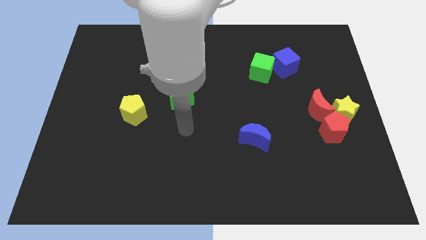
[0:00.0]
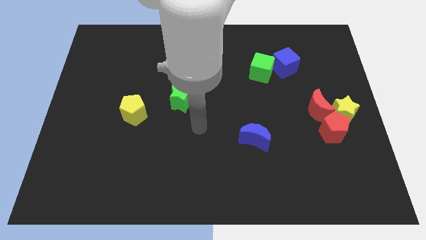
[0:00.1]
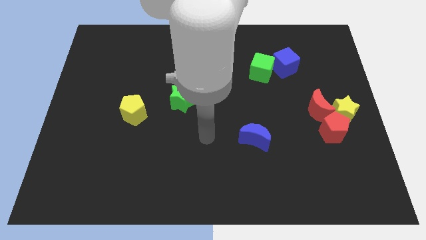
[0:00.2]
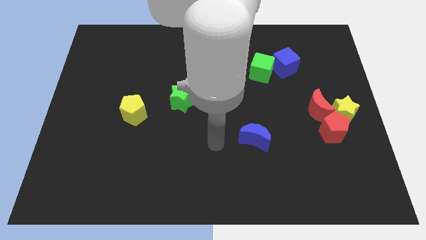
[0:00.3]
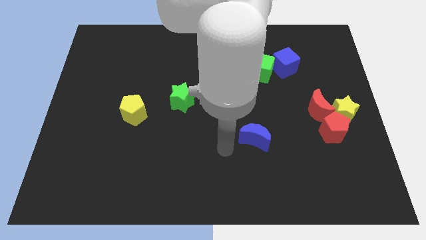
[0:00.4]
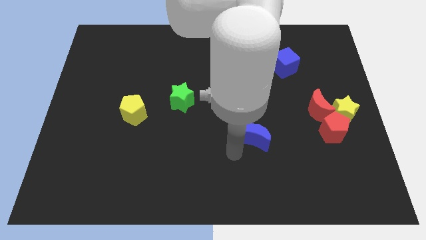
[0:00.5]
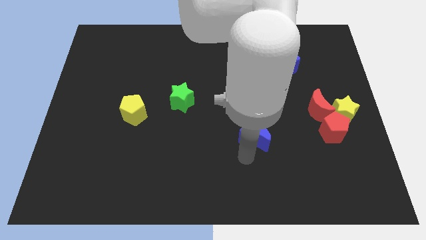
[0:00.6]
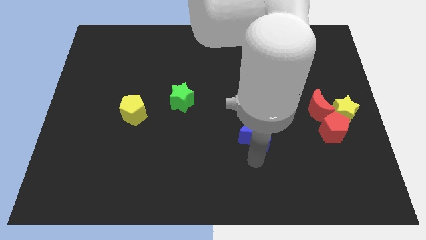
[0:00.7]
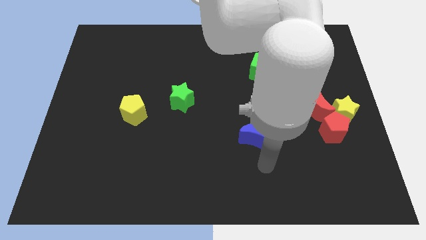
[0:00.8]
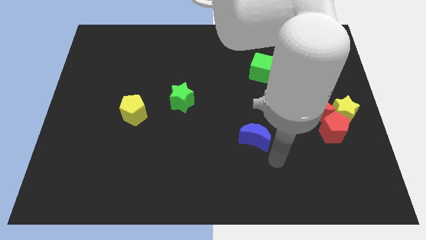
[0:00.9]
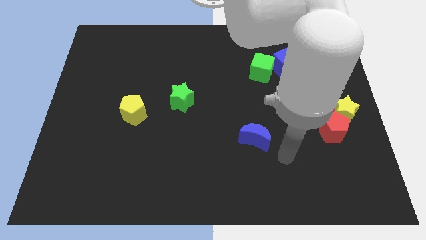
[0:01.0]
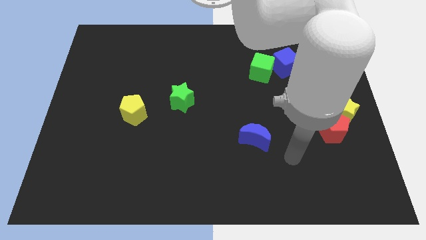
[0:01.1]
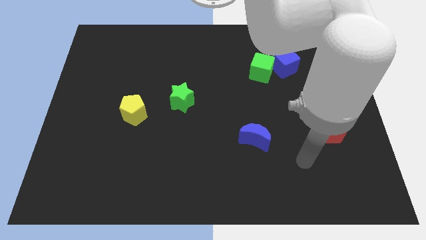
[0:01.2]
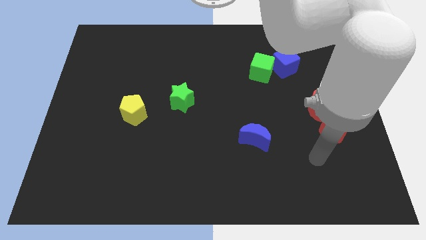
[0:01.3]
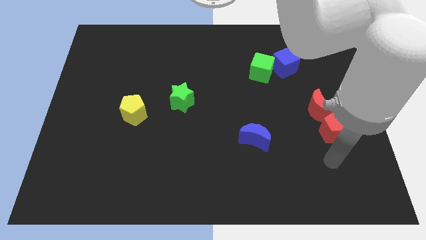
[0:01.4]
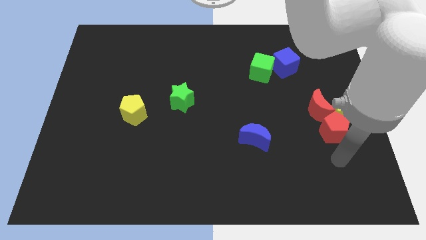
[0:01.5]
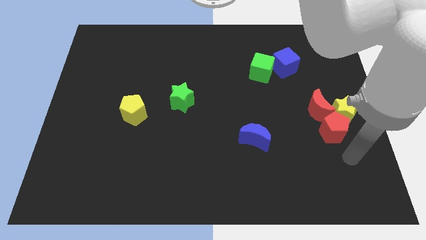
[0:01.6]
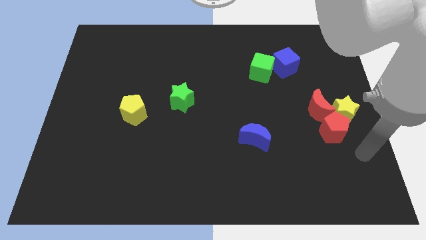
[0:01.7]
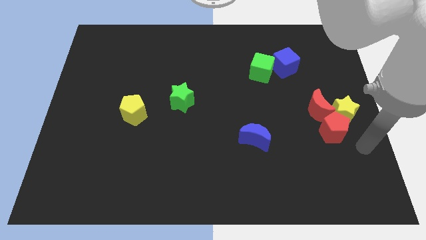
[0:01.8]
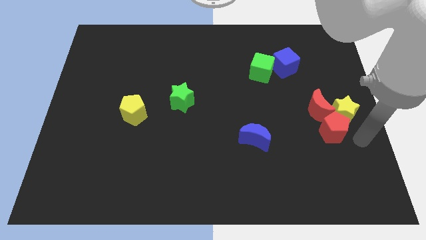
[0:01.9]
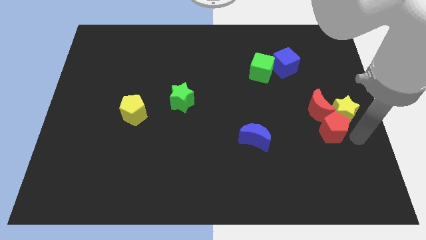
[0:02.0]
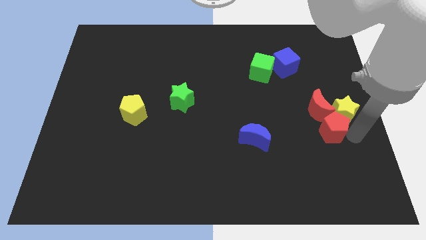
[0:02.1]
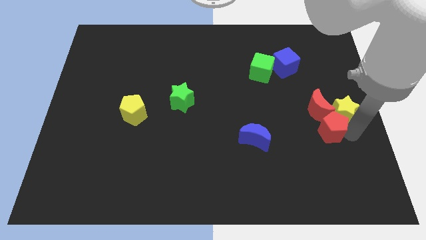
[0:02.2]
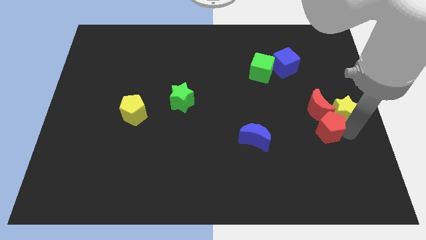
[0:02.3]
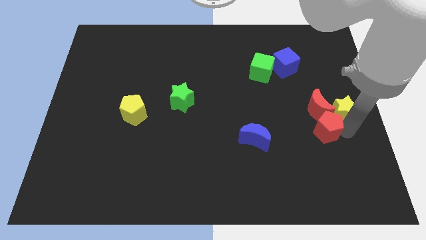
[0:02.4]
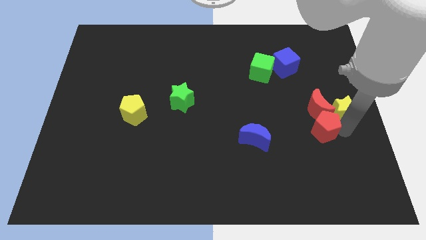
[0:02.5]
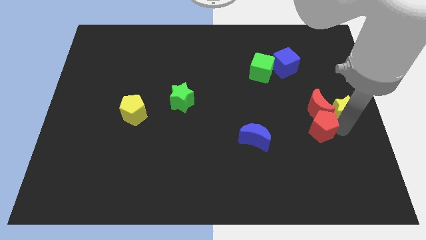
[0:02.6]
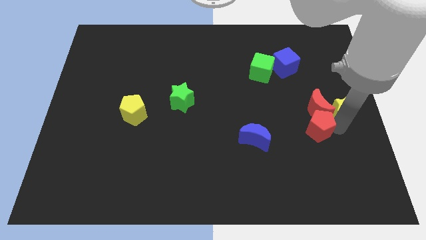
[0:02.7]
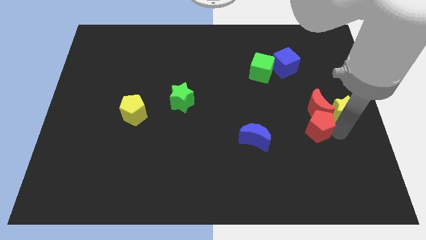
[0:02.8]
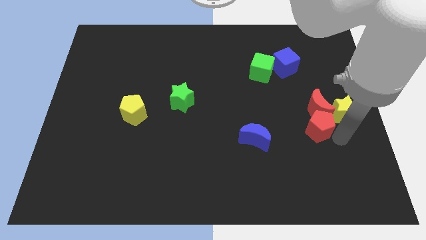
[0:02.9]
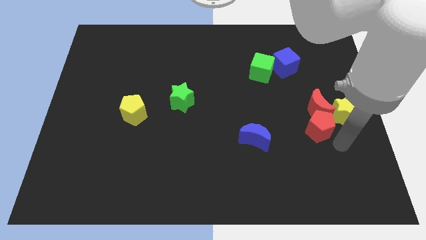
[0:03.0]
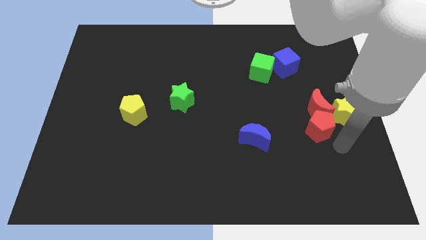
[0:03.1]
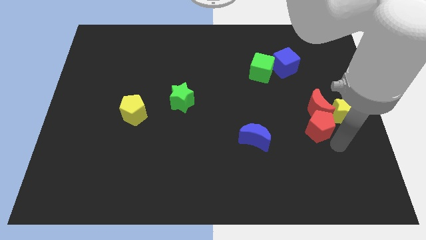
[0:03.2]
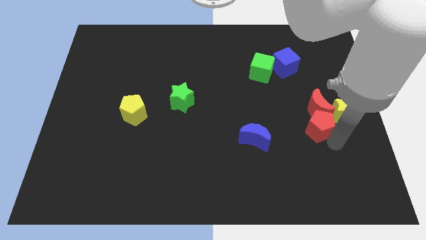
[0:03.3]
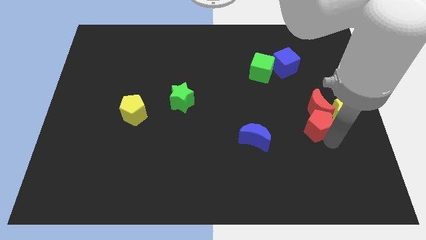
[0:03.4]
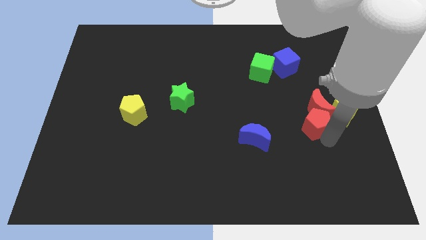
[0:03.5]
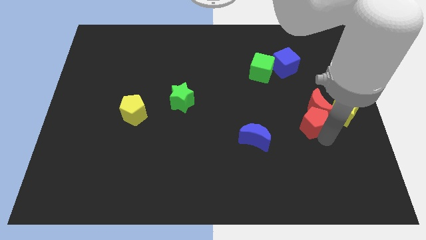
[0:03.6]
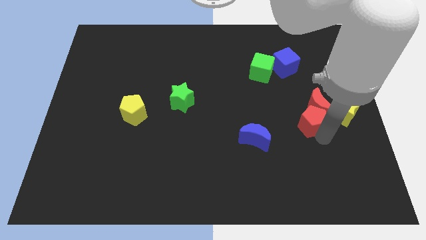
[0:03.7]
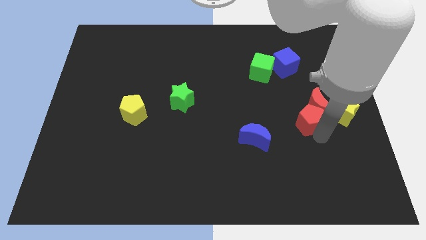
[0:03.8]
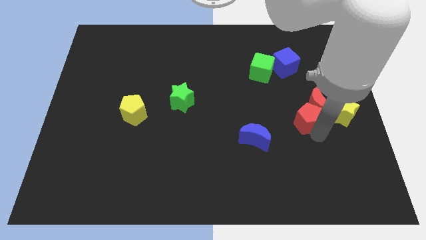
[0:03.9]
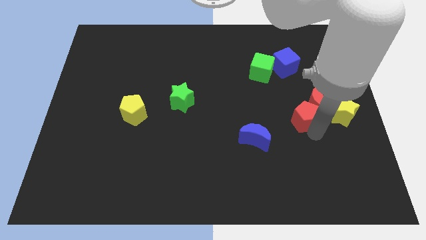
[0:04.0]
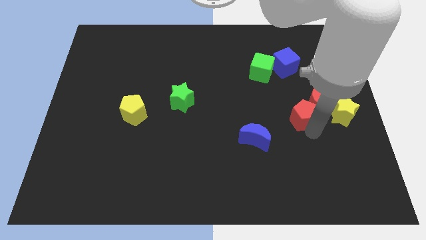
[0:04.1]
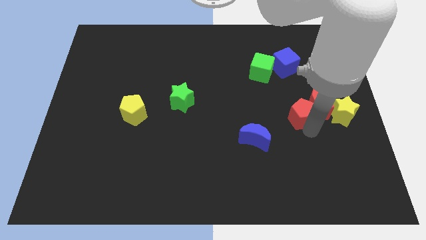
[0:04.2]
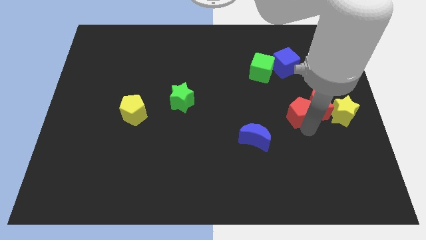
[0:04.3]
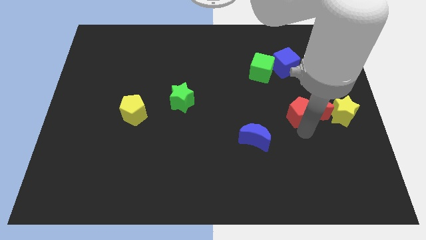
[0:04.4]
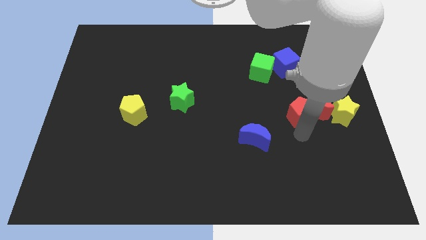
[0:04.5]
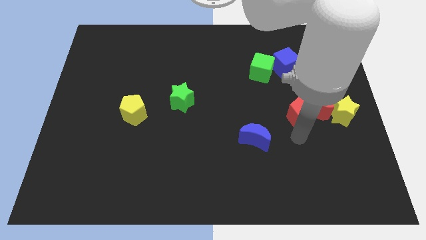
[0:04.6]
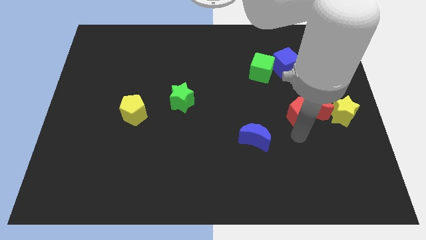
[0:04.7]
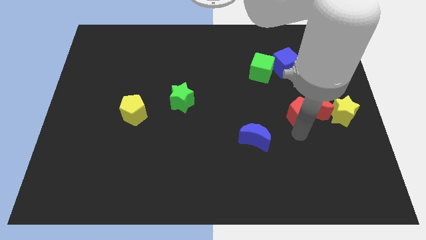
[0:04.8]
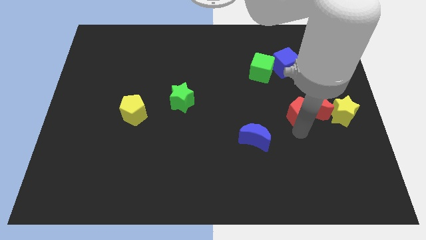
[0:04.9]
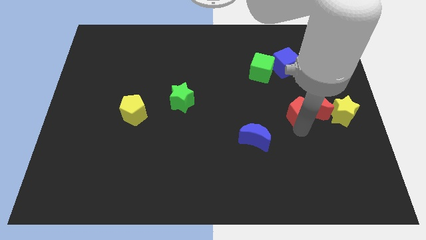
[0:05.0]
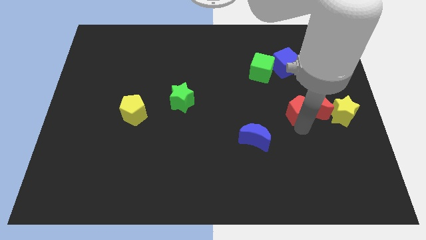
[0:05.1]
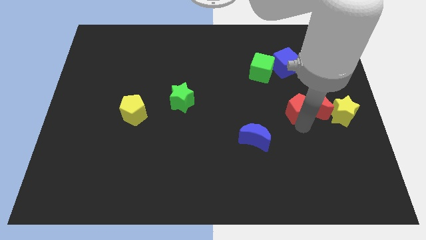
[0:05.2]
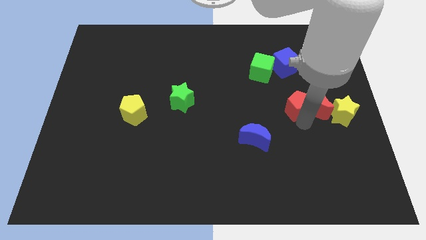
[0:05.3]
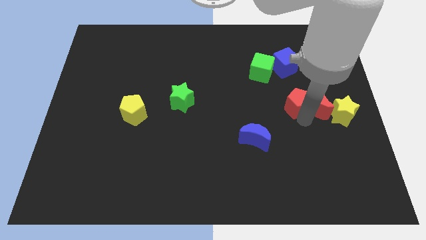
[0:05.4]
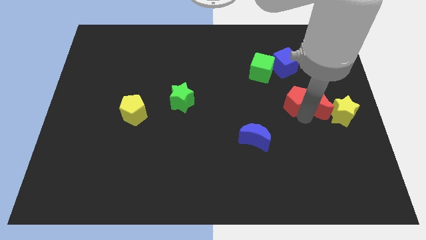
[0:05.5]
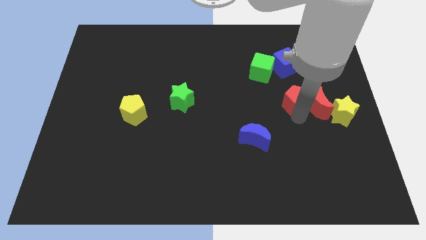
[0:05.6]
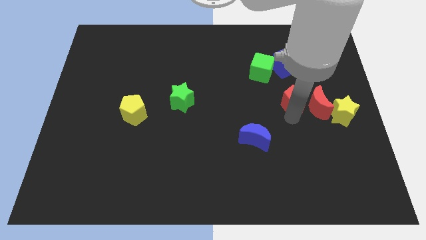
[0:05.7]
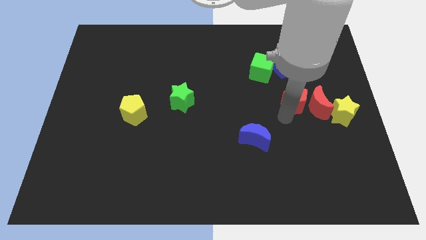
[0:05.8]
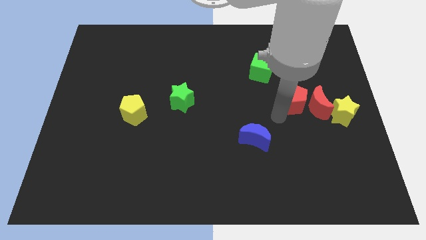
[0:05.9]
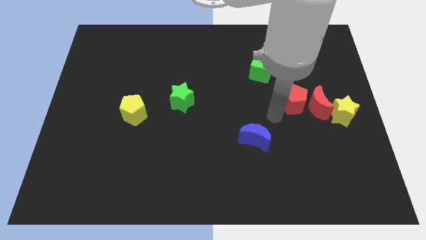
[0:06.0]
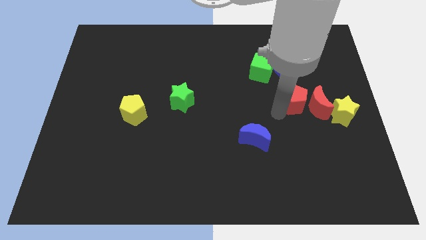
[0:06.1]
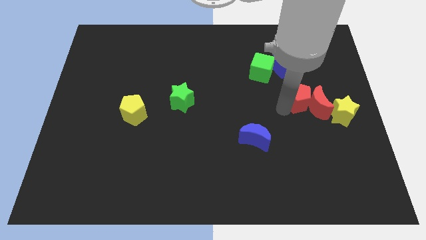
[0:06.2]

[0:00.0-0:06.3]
slightly move the red pentagon upwards

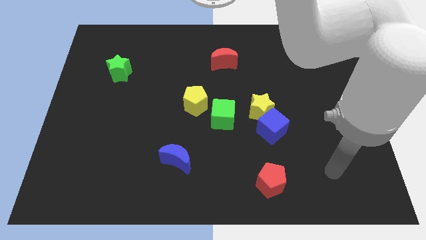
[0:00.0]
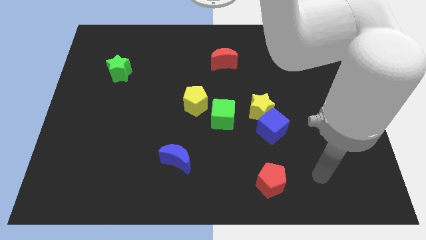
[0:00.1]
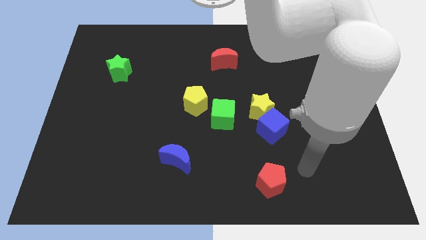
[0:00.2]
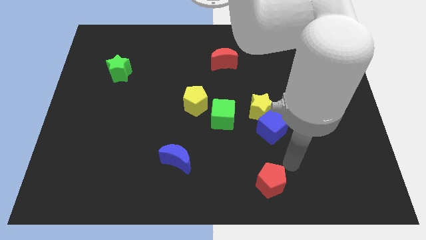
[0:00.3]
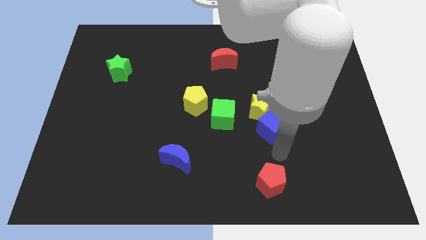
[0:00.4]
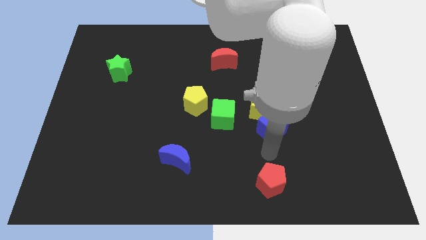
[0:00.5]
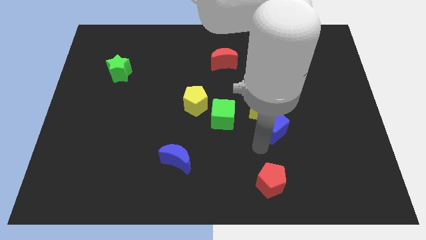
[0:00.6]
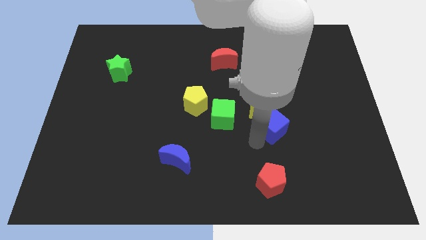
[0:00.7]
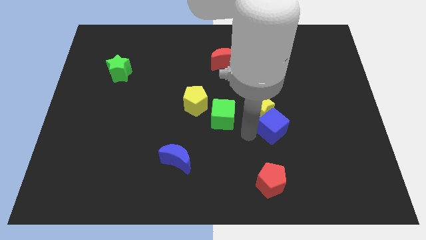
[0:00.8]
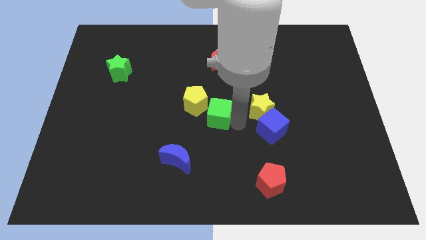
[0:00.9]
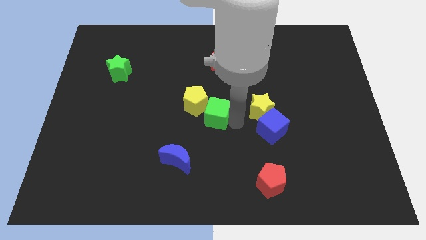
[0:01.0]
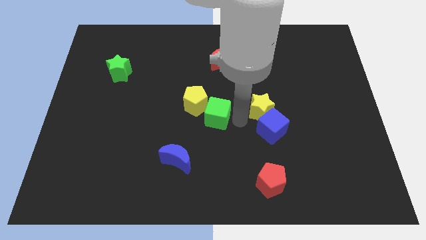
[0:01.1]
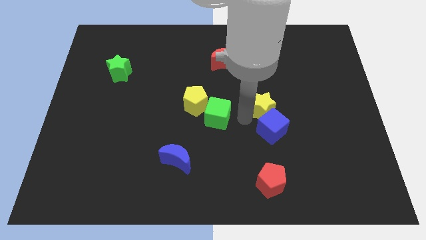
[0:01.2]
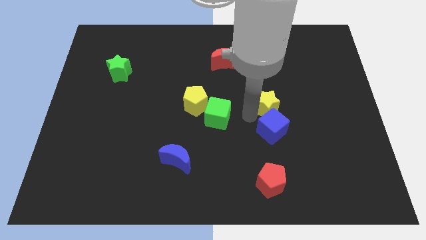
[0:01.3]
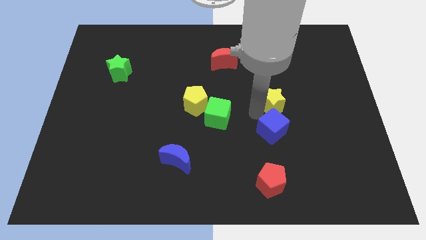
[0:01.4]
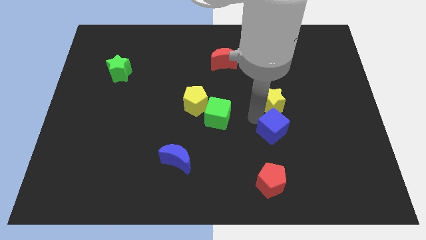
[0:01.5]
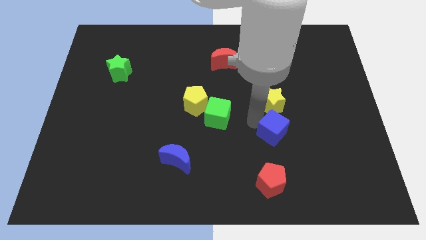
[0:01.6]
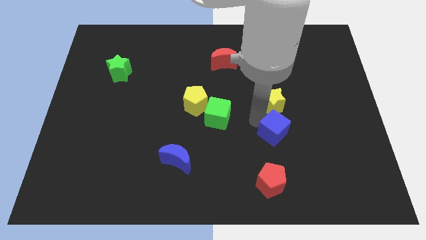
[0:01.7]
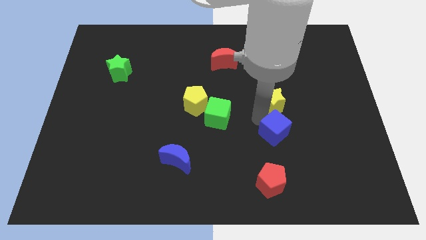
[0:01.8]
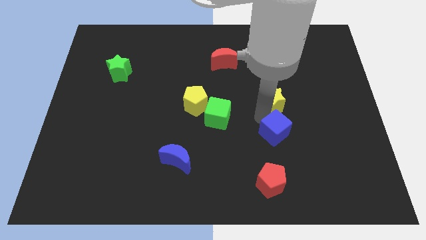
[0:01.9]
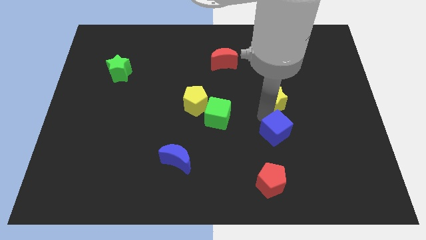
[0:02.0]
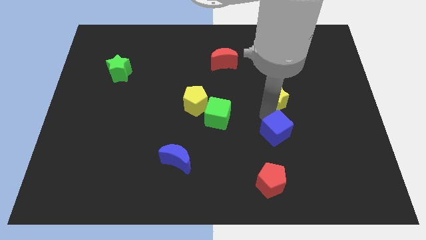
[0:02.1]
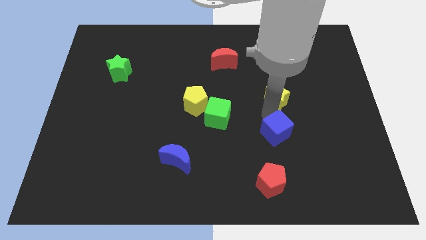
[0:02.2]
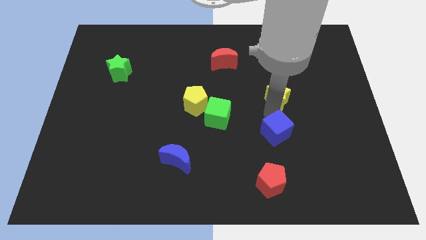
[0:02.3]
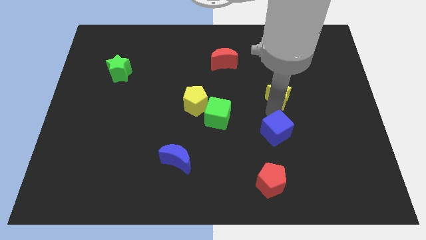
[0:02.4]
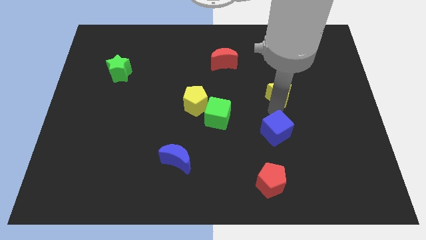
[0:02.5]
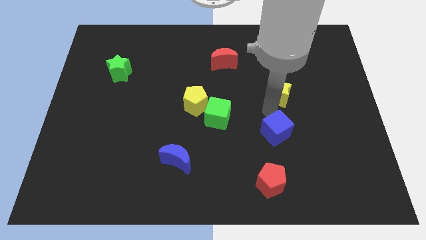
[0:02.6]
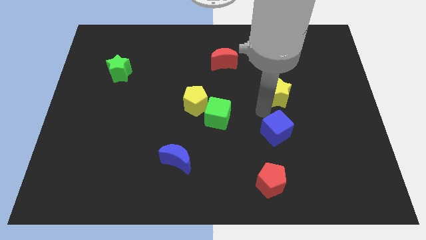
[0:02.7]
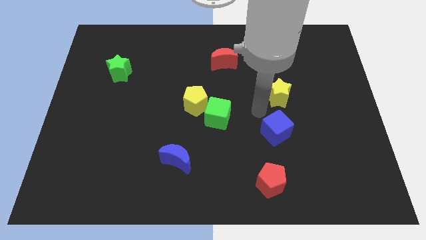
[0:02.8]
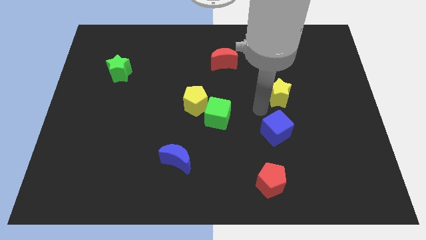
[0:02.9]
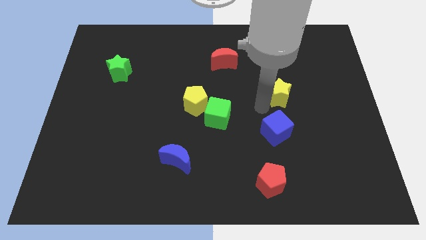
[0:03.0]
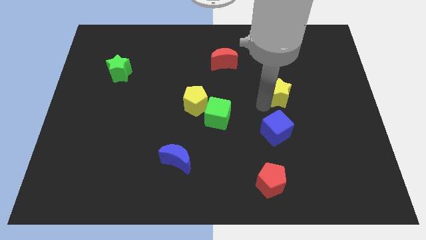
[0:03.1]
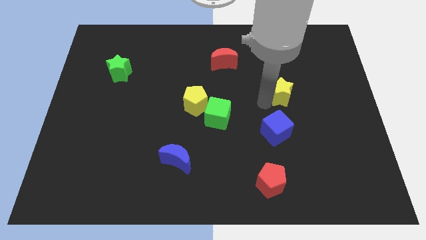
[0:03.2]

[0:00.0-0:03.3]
push the yellow star up and right diagonally somewhat
